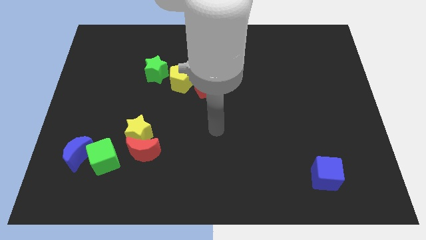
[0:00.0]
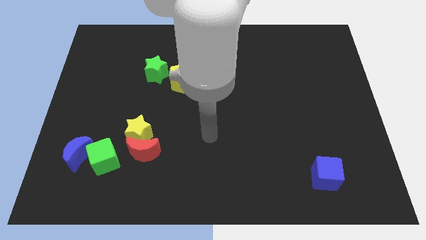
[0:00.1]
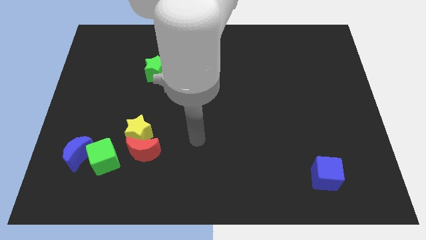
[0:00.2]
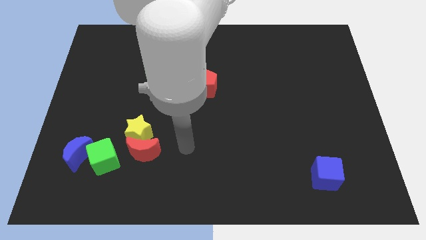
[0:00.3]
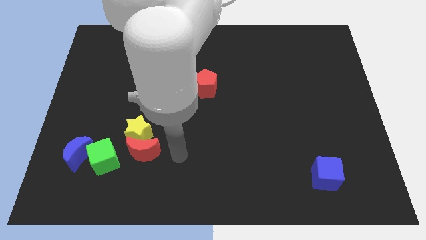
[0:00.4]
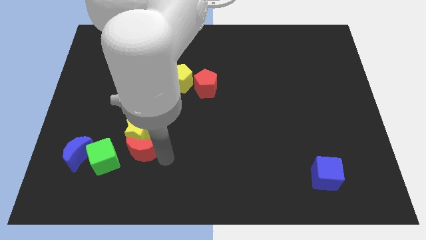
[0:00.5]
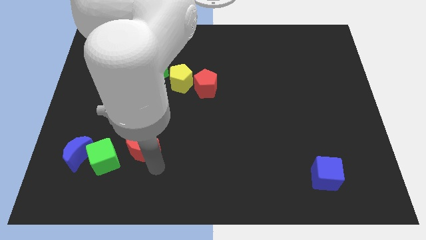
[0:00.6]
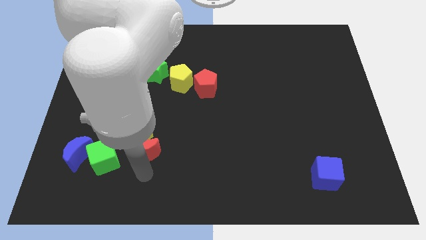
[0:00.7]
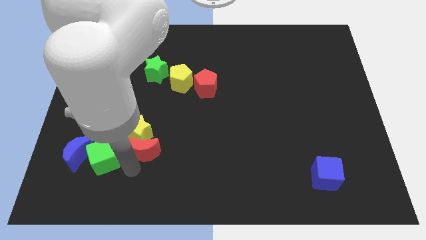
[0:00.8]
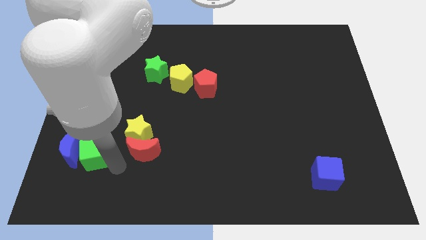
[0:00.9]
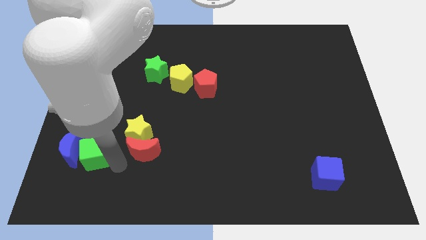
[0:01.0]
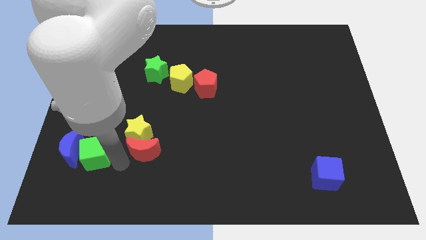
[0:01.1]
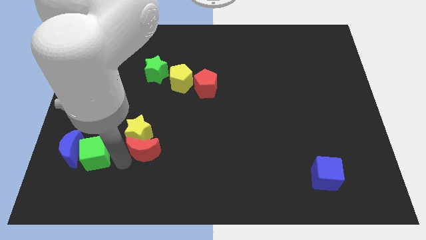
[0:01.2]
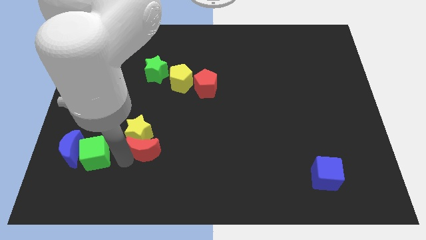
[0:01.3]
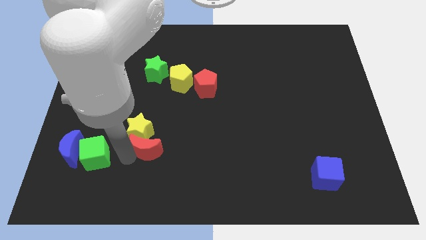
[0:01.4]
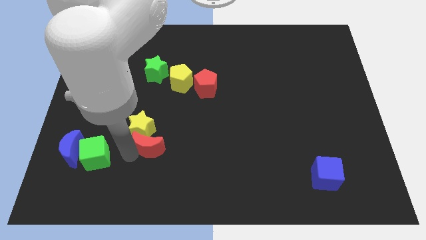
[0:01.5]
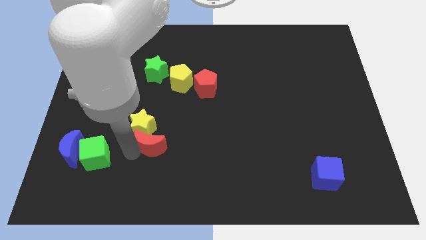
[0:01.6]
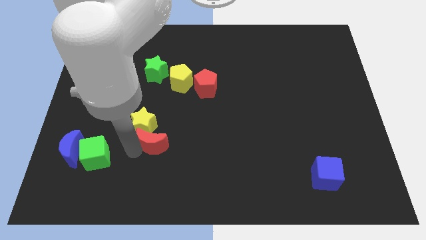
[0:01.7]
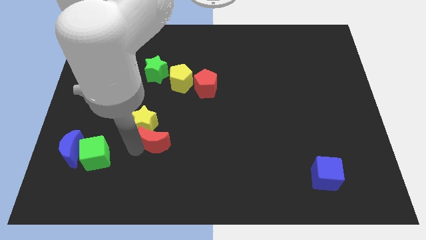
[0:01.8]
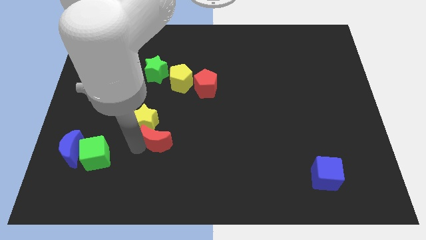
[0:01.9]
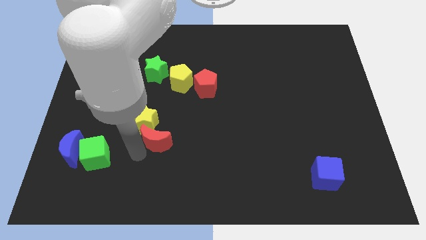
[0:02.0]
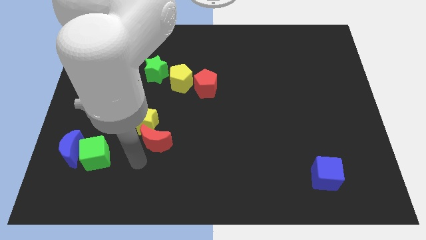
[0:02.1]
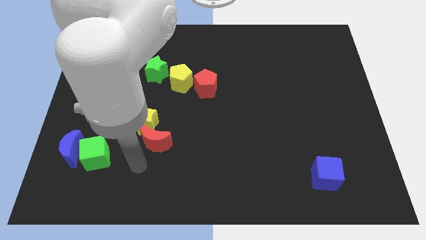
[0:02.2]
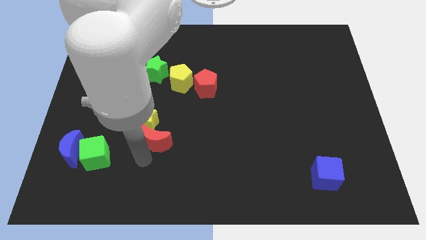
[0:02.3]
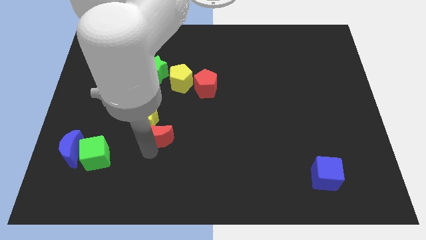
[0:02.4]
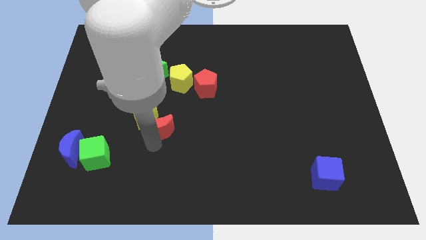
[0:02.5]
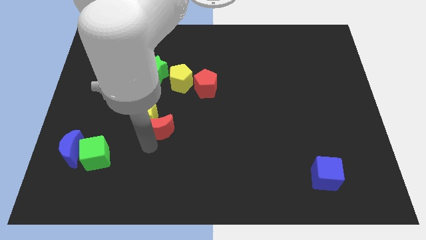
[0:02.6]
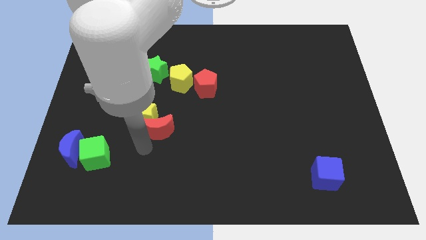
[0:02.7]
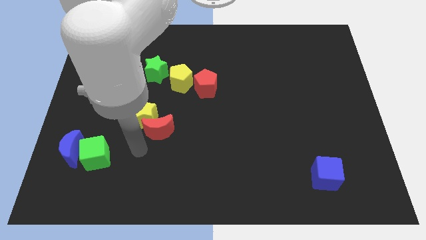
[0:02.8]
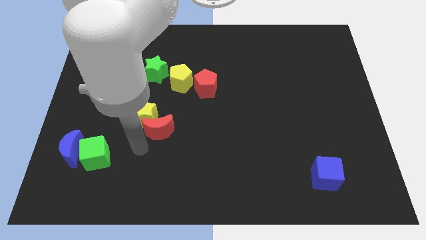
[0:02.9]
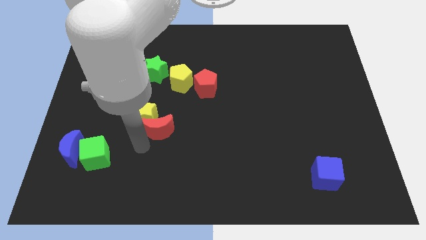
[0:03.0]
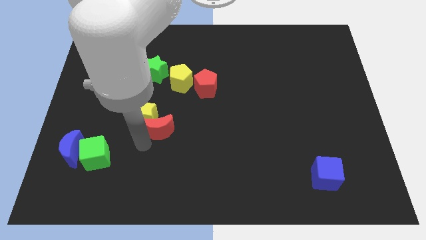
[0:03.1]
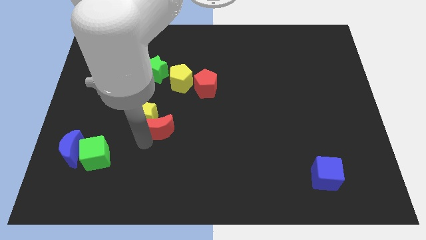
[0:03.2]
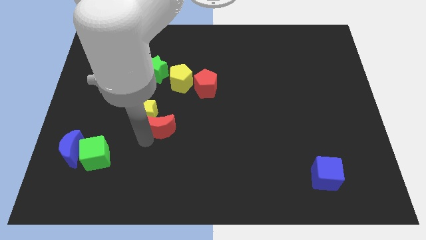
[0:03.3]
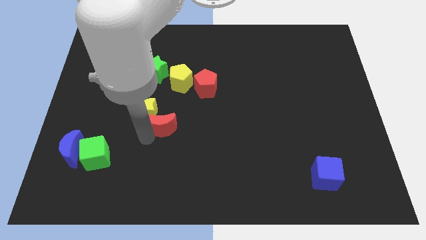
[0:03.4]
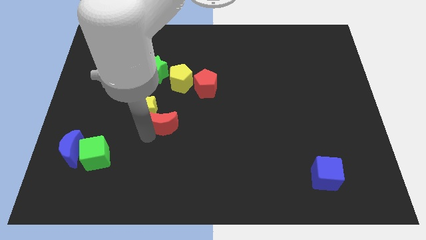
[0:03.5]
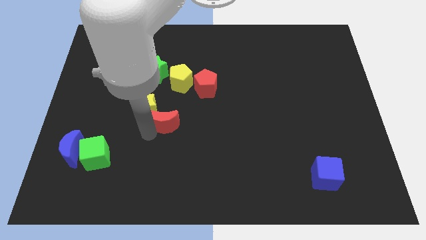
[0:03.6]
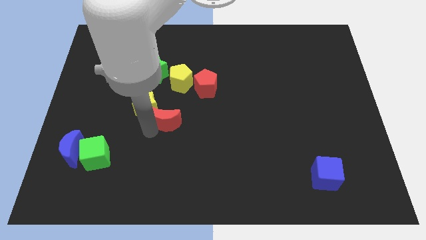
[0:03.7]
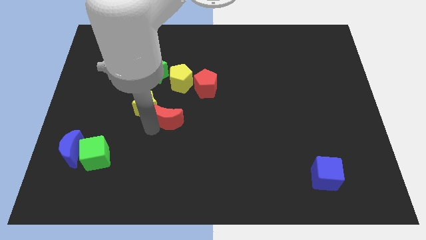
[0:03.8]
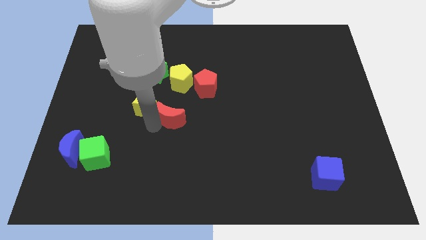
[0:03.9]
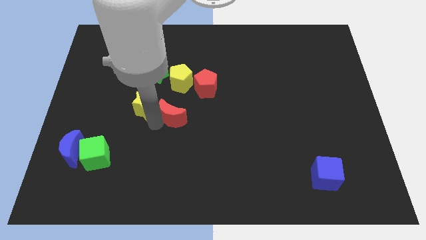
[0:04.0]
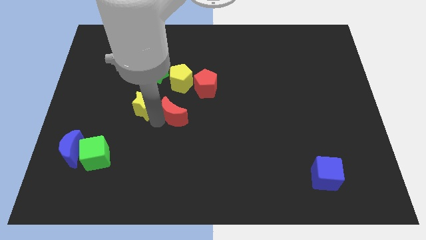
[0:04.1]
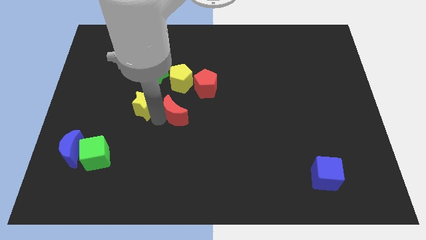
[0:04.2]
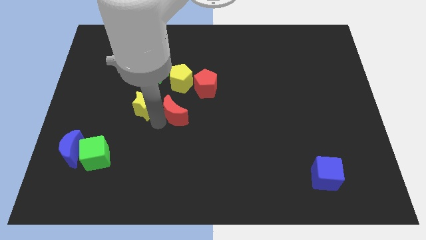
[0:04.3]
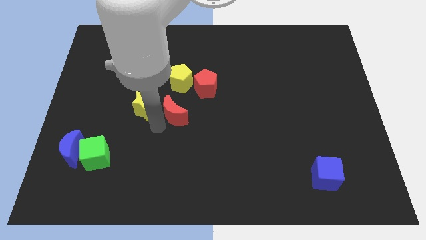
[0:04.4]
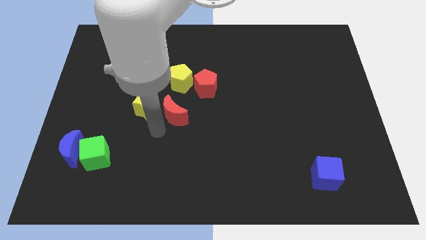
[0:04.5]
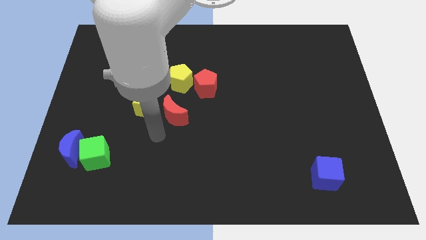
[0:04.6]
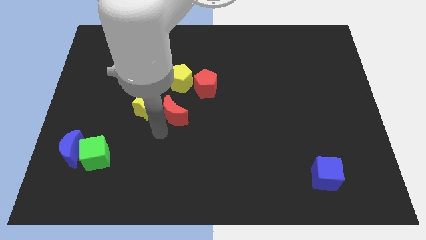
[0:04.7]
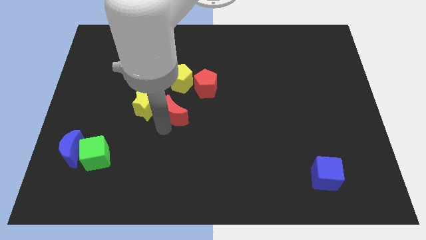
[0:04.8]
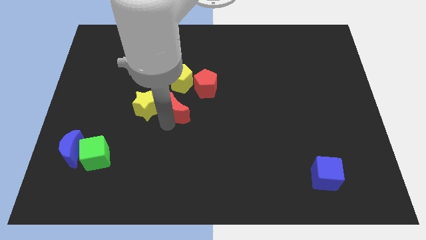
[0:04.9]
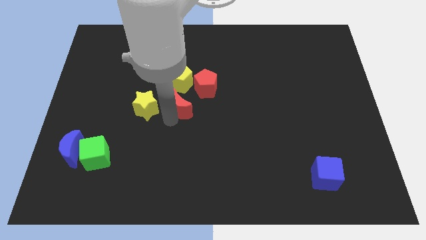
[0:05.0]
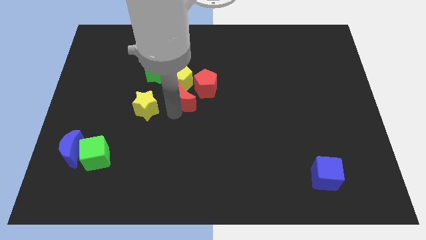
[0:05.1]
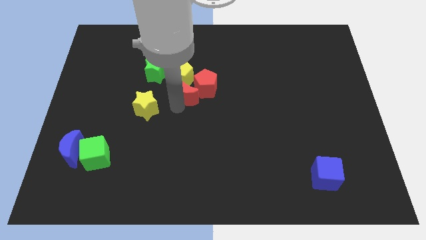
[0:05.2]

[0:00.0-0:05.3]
push the red moon close to the red pentagon

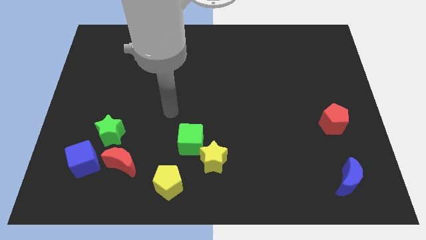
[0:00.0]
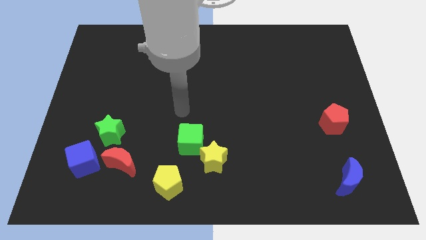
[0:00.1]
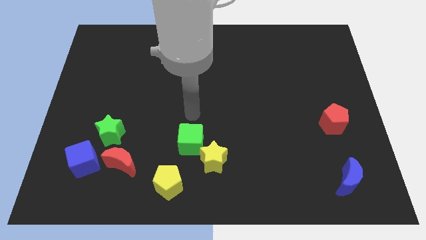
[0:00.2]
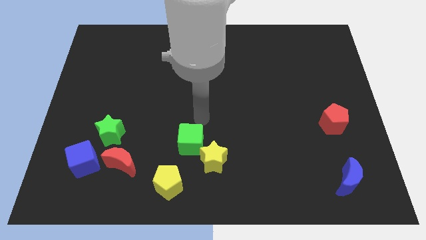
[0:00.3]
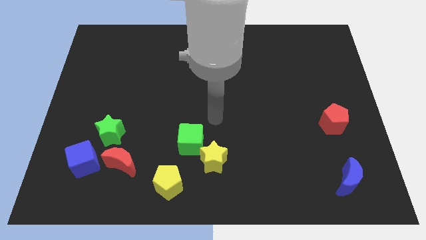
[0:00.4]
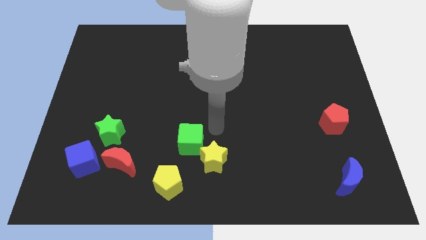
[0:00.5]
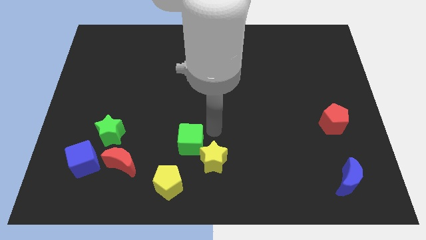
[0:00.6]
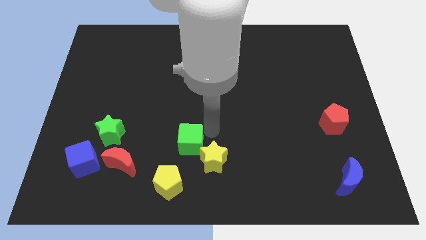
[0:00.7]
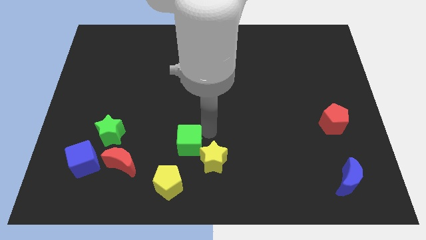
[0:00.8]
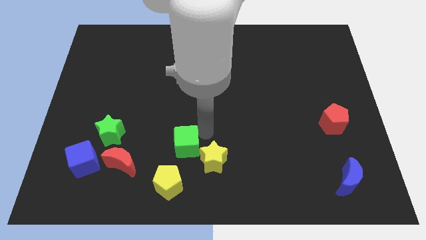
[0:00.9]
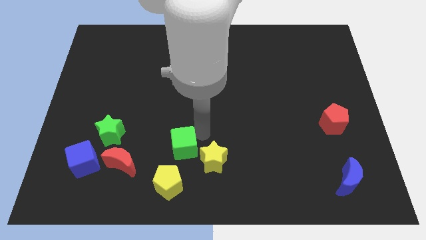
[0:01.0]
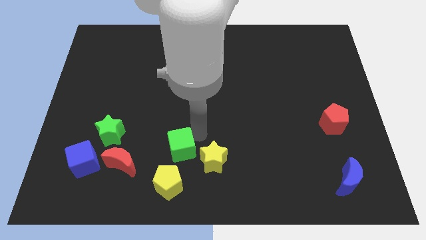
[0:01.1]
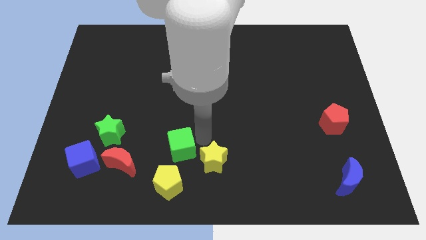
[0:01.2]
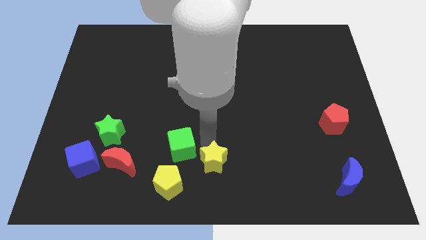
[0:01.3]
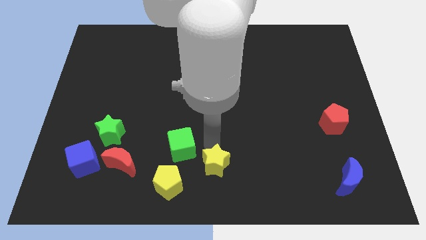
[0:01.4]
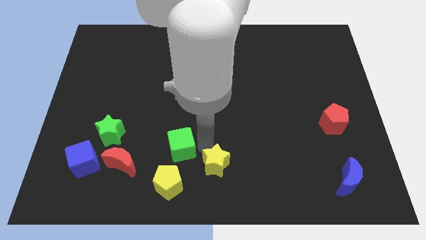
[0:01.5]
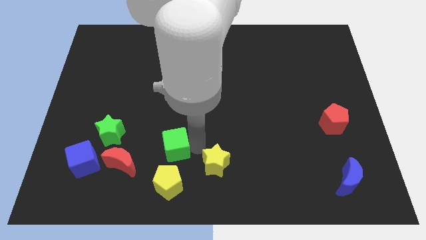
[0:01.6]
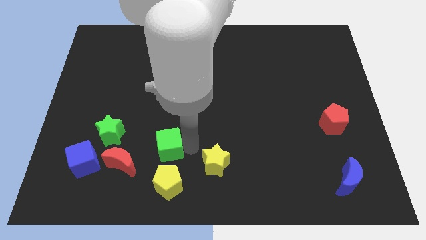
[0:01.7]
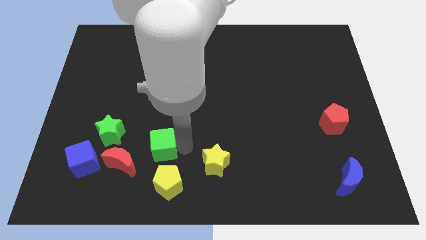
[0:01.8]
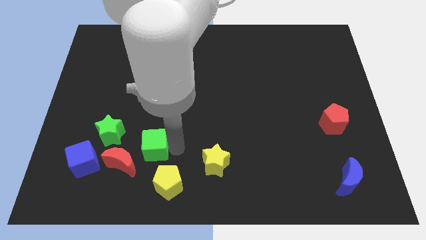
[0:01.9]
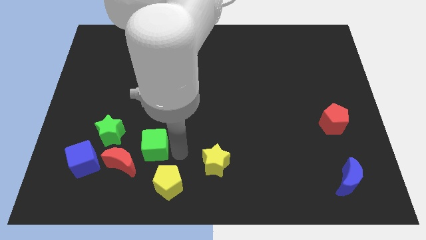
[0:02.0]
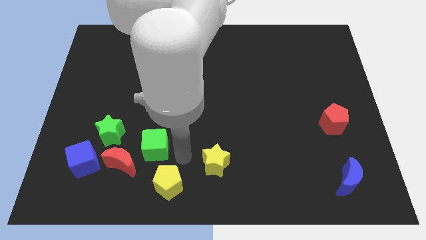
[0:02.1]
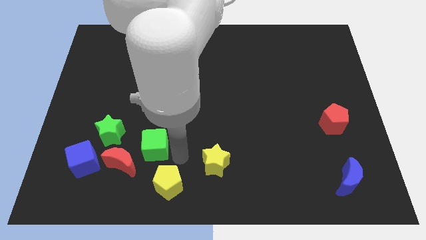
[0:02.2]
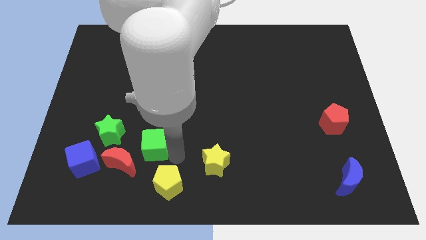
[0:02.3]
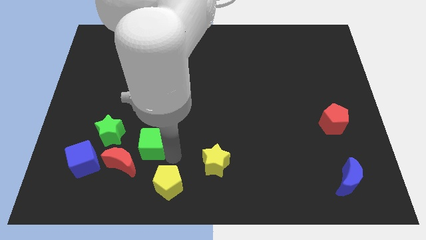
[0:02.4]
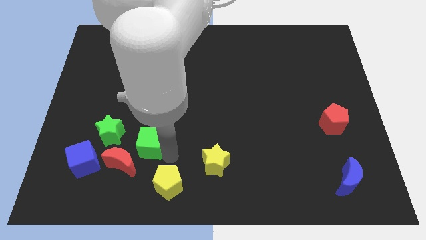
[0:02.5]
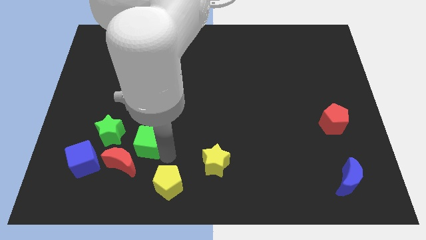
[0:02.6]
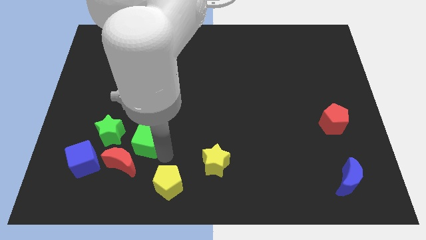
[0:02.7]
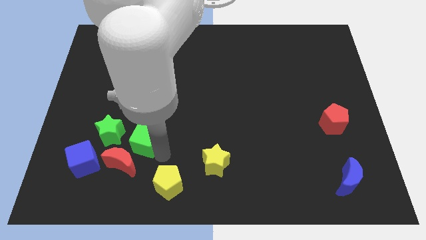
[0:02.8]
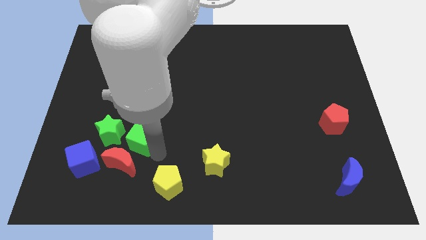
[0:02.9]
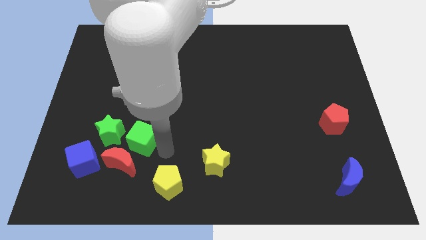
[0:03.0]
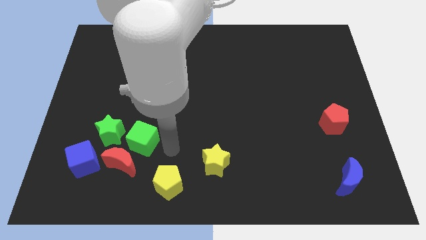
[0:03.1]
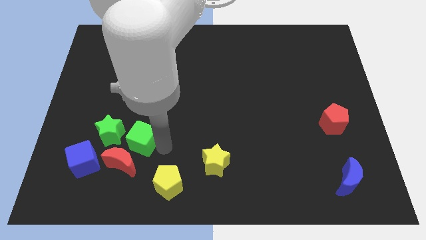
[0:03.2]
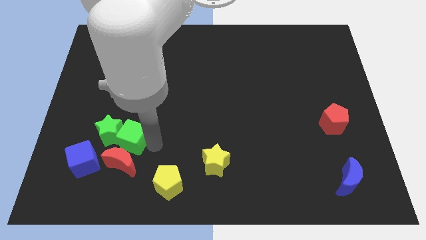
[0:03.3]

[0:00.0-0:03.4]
push the green cube to the green star
